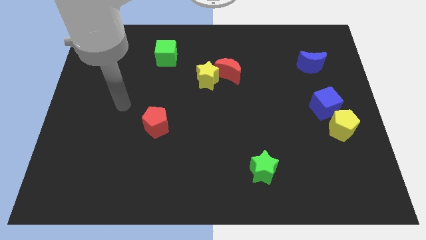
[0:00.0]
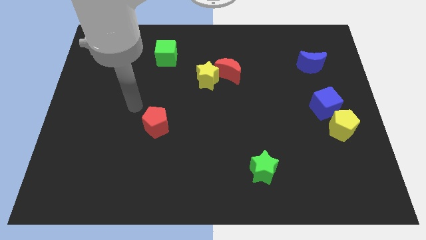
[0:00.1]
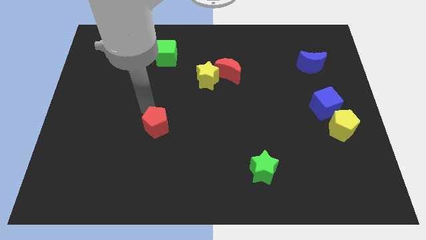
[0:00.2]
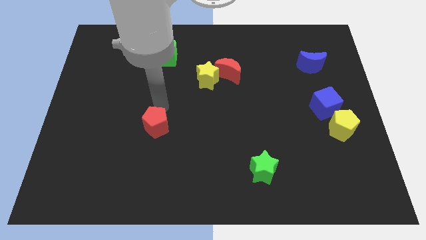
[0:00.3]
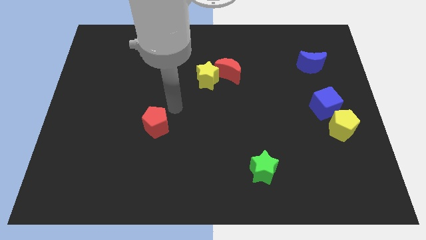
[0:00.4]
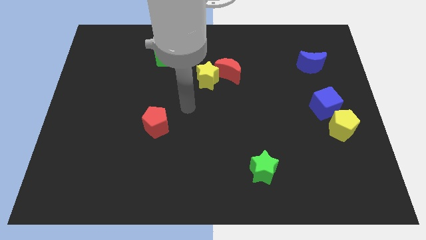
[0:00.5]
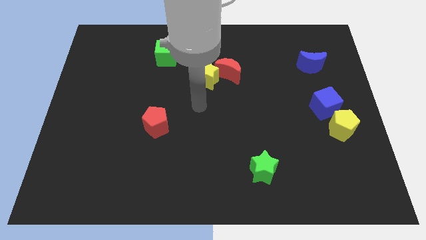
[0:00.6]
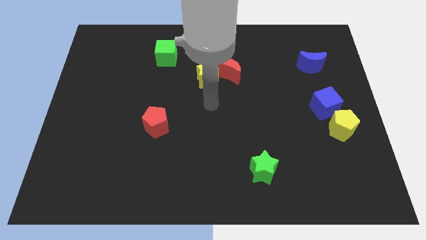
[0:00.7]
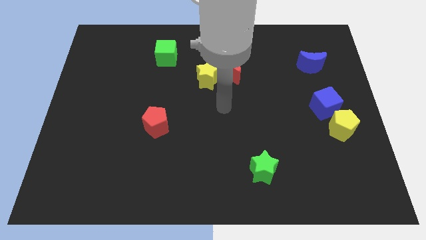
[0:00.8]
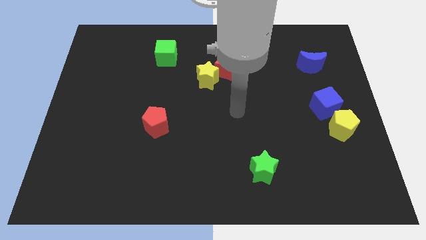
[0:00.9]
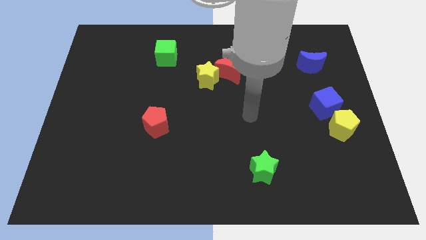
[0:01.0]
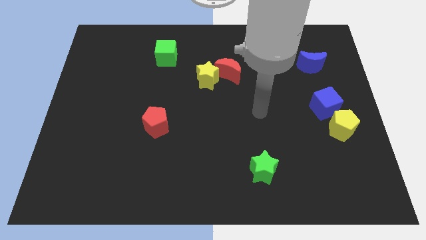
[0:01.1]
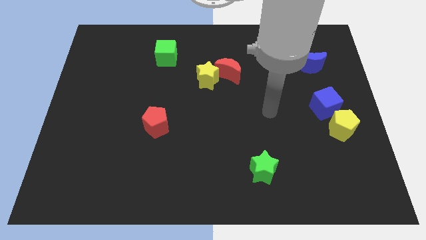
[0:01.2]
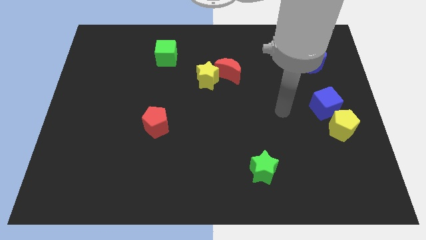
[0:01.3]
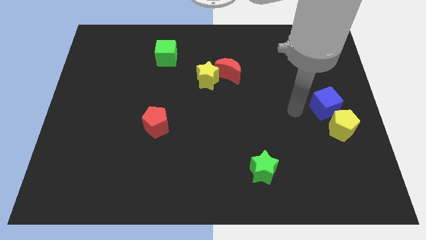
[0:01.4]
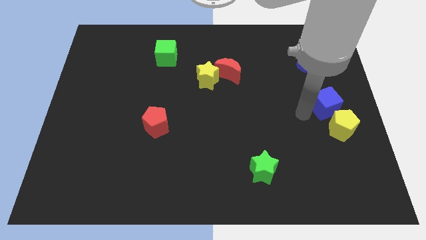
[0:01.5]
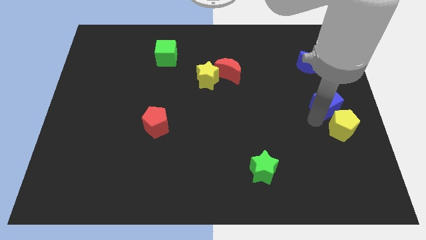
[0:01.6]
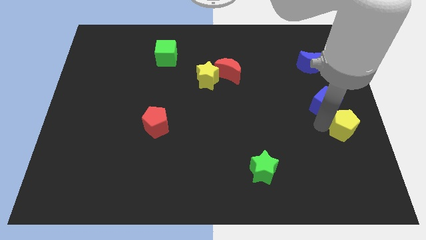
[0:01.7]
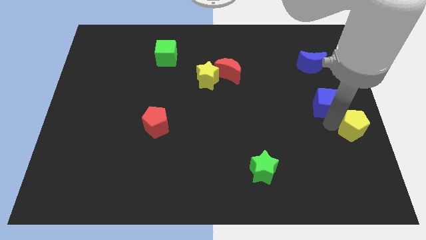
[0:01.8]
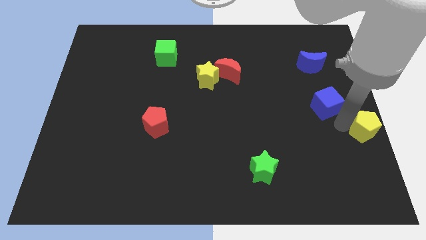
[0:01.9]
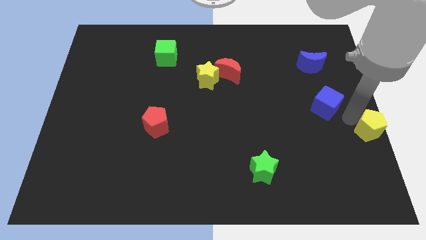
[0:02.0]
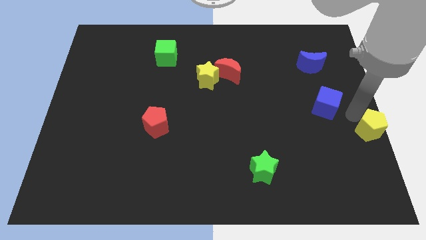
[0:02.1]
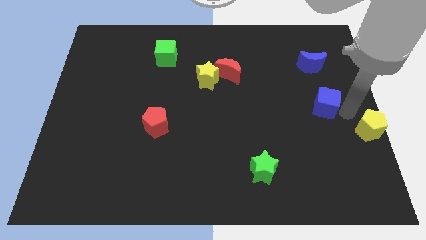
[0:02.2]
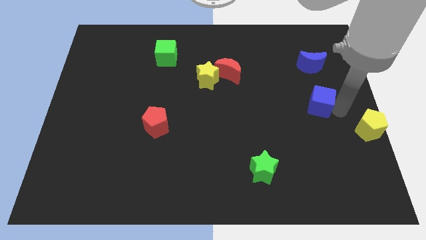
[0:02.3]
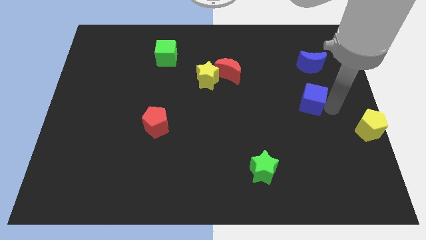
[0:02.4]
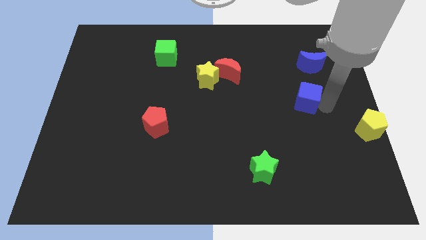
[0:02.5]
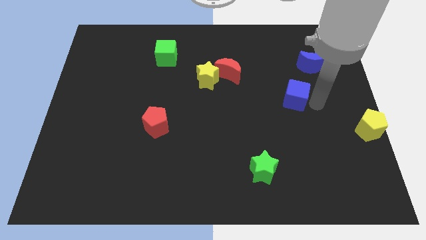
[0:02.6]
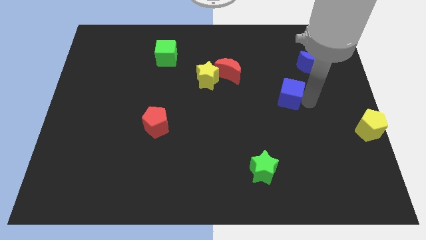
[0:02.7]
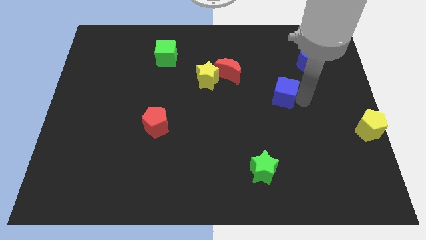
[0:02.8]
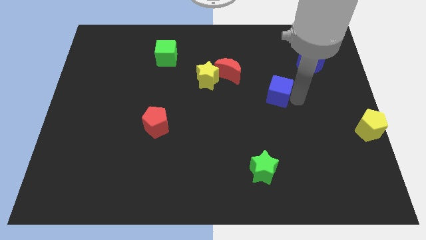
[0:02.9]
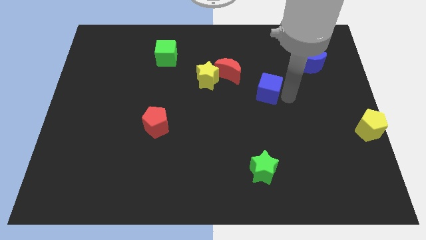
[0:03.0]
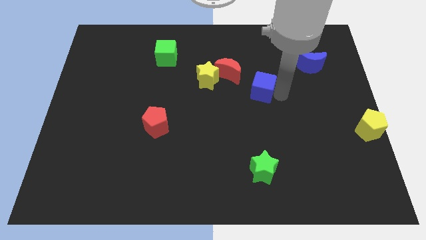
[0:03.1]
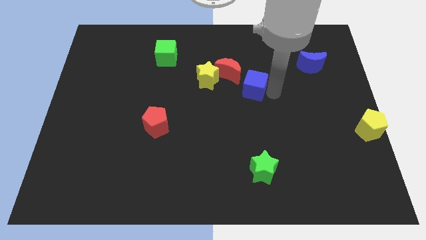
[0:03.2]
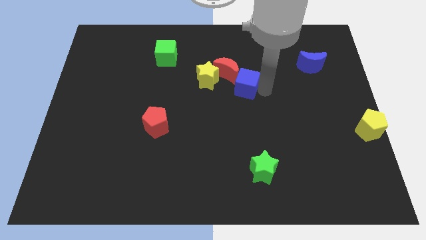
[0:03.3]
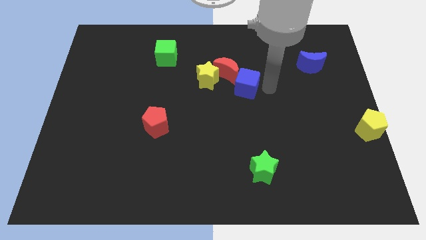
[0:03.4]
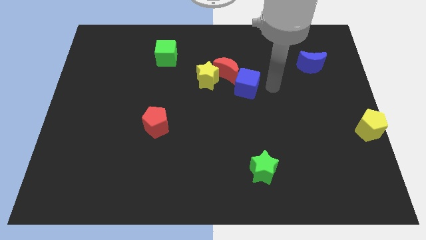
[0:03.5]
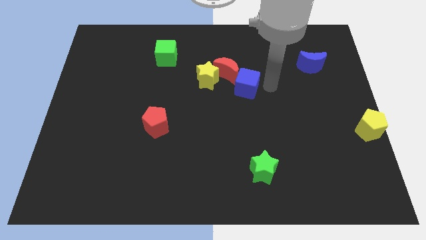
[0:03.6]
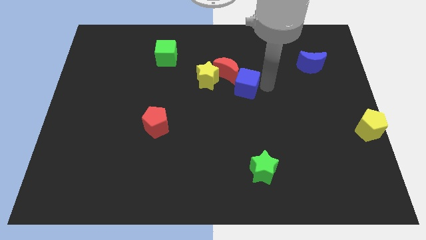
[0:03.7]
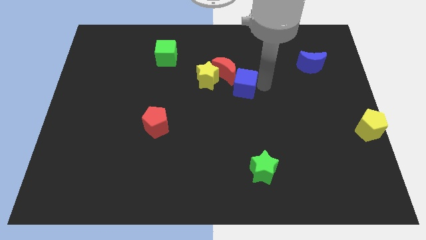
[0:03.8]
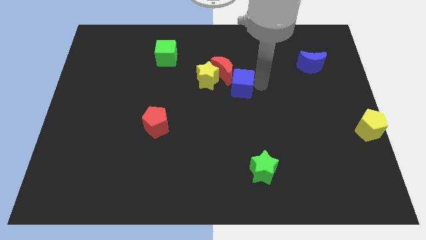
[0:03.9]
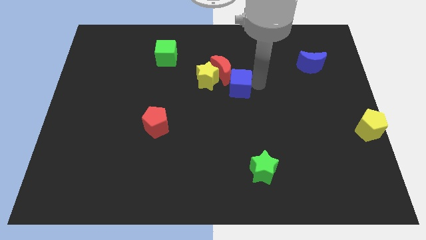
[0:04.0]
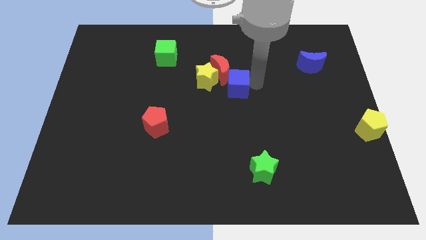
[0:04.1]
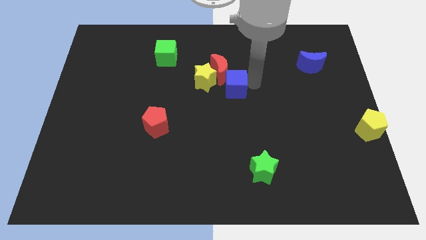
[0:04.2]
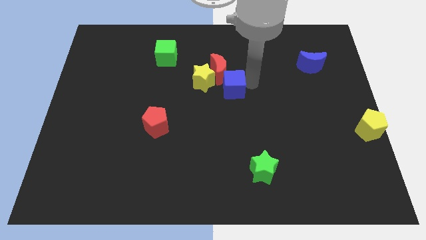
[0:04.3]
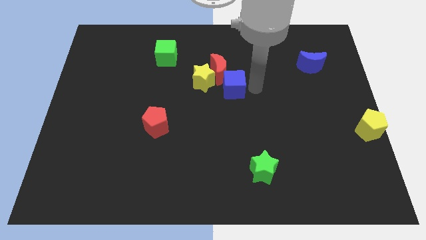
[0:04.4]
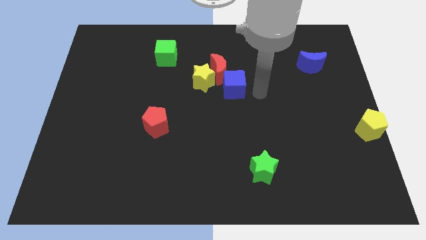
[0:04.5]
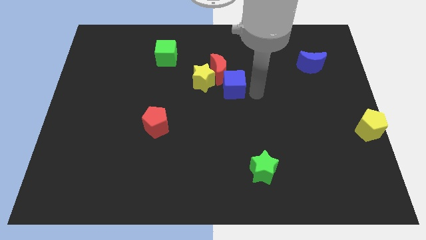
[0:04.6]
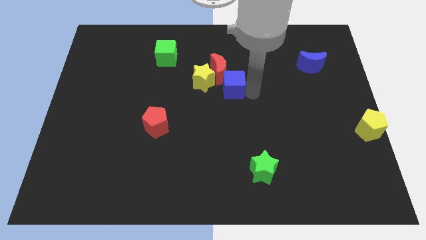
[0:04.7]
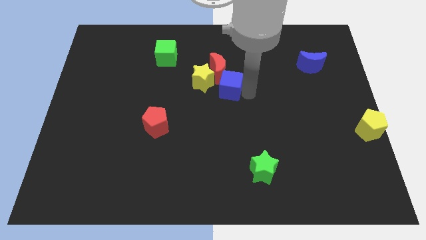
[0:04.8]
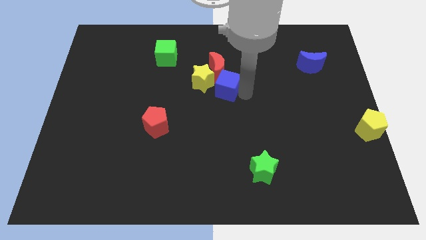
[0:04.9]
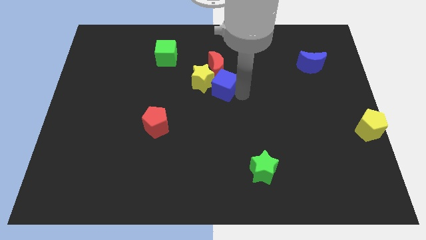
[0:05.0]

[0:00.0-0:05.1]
slide the blue cube to the yellow star

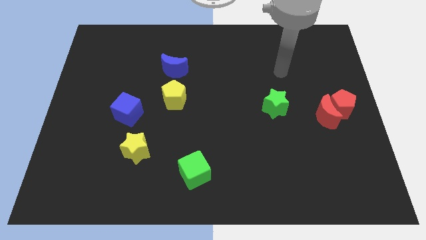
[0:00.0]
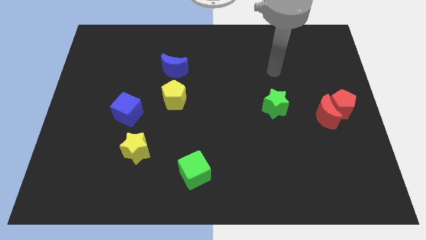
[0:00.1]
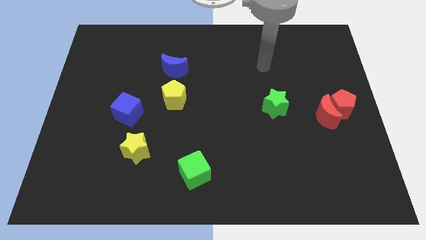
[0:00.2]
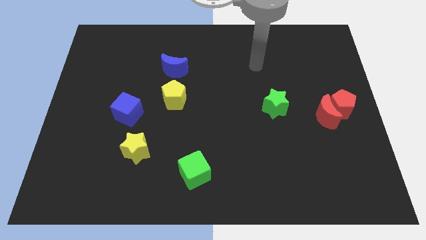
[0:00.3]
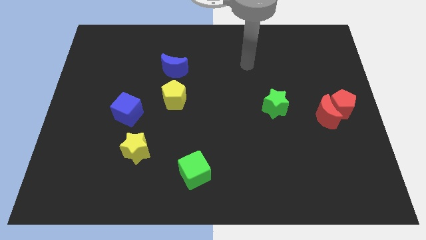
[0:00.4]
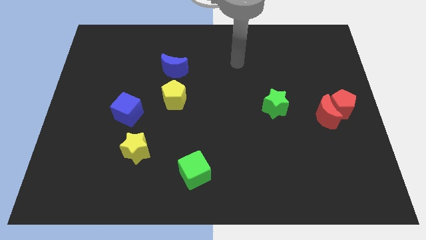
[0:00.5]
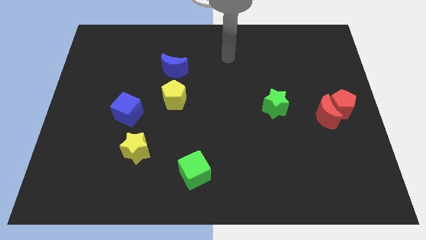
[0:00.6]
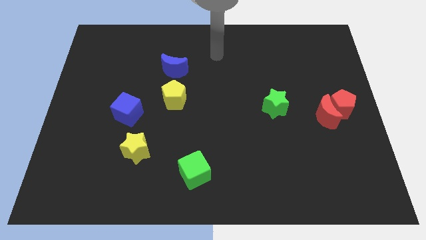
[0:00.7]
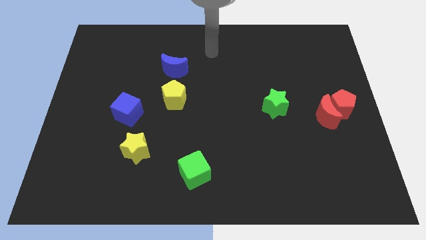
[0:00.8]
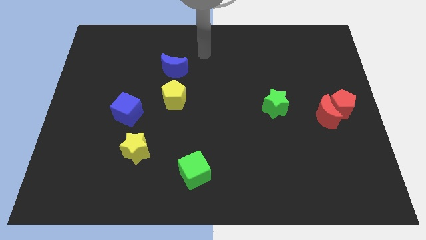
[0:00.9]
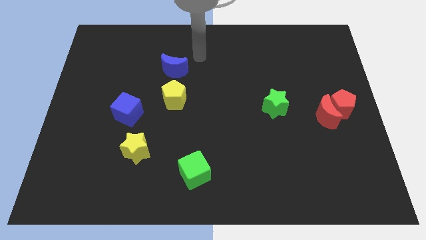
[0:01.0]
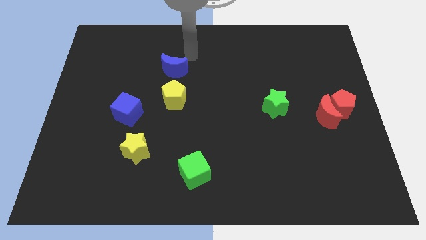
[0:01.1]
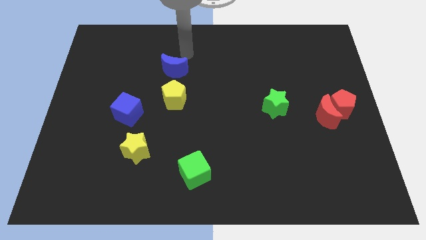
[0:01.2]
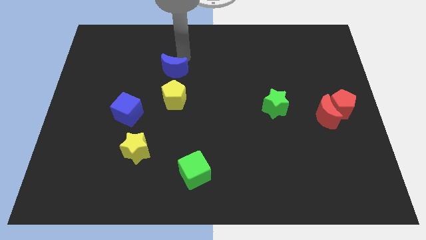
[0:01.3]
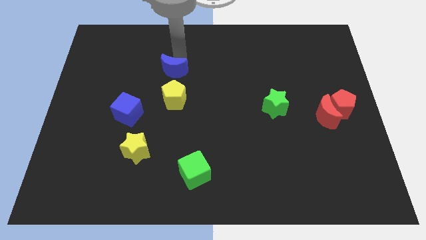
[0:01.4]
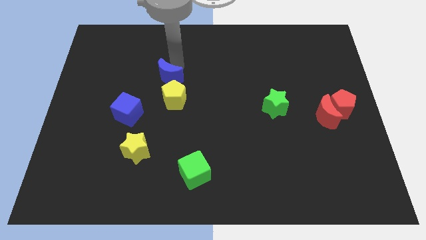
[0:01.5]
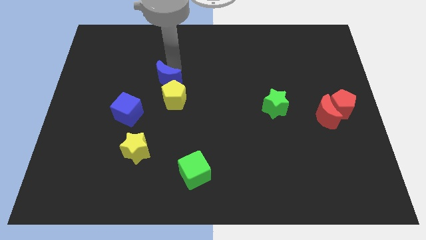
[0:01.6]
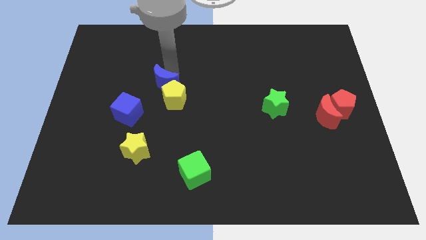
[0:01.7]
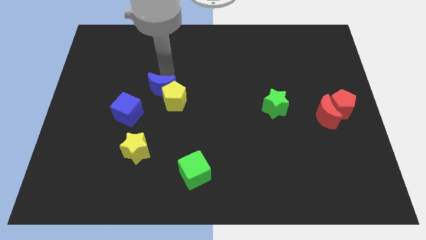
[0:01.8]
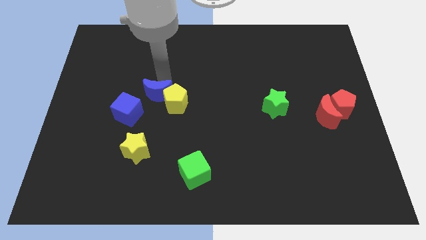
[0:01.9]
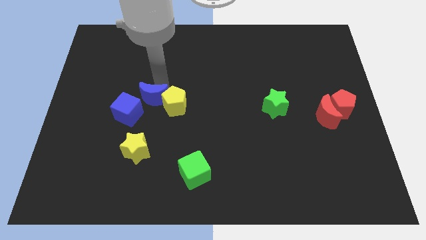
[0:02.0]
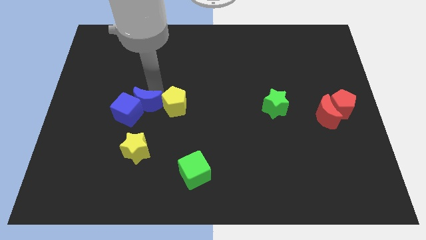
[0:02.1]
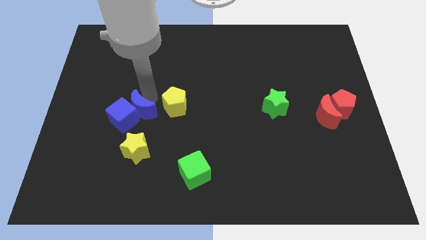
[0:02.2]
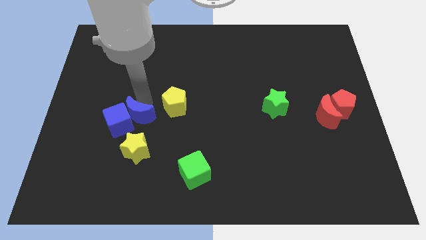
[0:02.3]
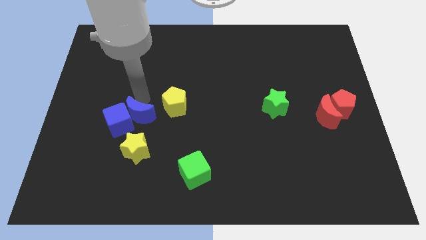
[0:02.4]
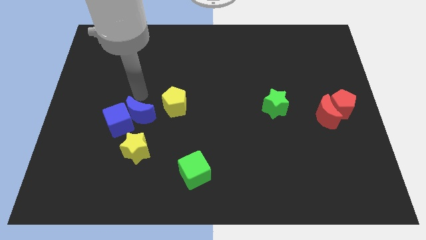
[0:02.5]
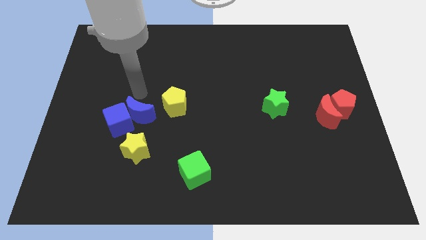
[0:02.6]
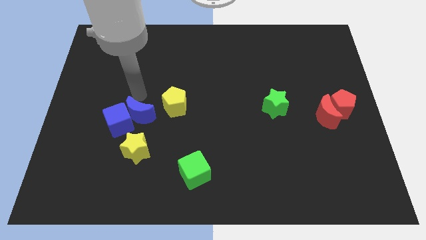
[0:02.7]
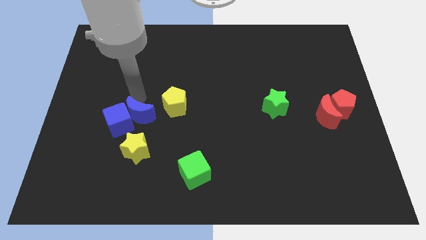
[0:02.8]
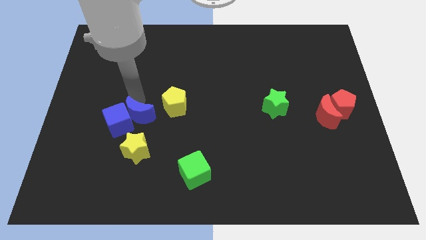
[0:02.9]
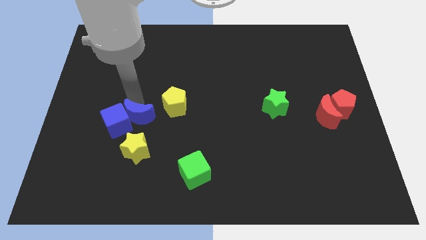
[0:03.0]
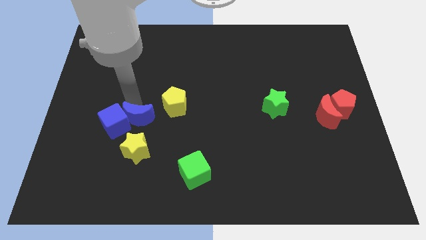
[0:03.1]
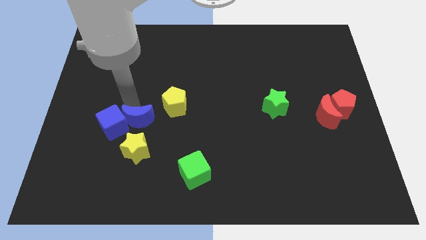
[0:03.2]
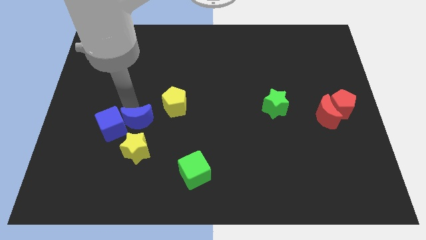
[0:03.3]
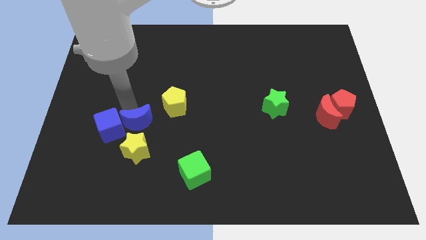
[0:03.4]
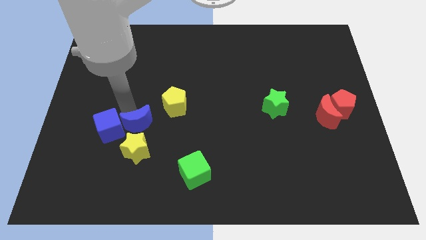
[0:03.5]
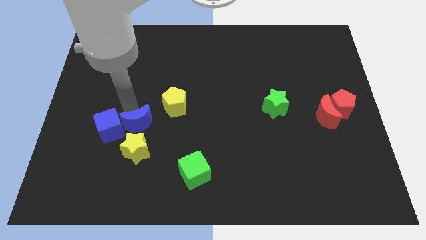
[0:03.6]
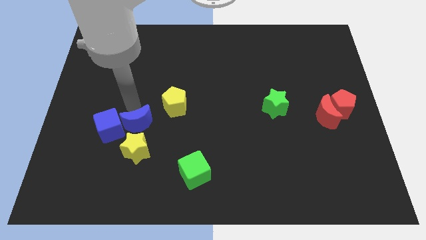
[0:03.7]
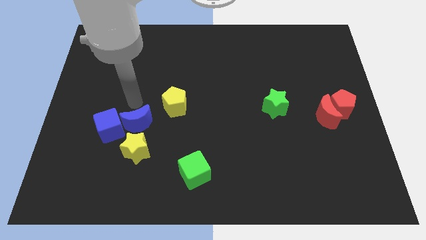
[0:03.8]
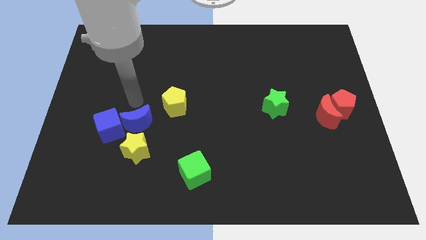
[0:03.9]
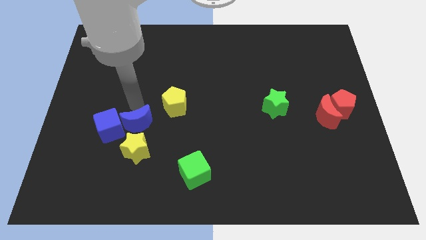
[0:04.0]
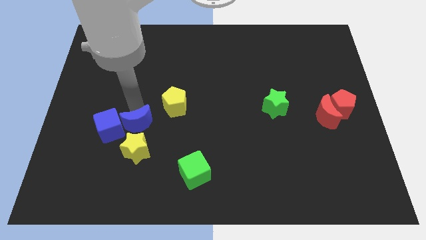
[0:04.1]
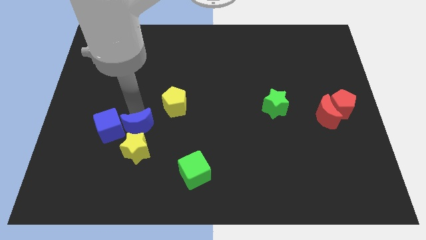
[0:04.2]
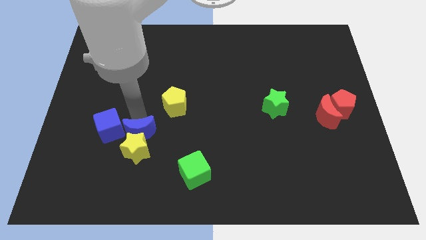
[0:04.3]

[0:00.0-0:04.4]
move the blue moon close to the yellow star
